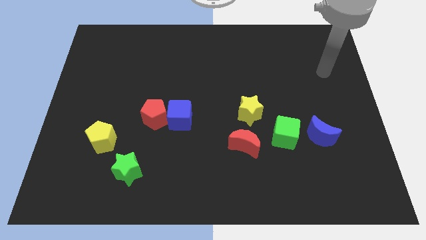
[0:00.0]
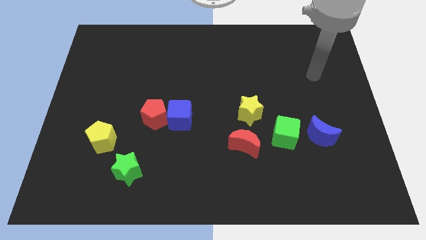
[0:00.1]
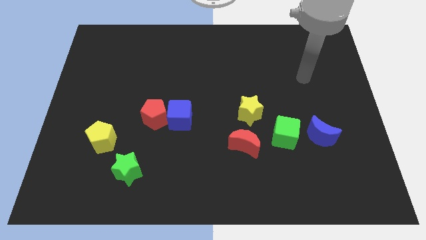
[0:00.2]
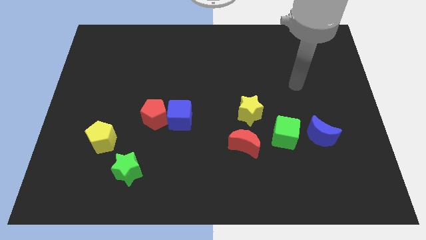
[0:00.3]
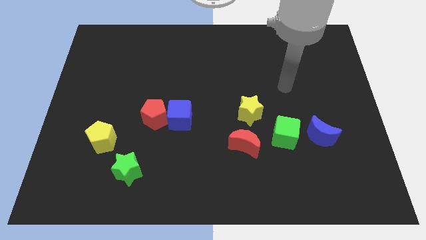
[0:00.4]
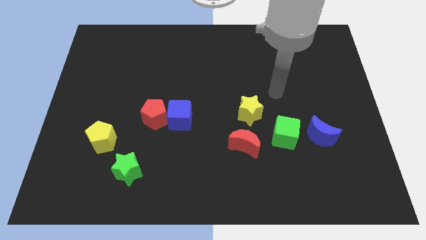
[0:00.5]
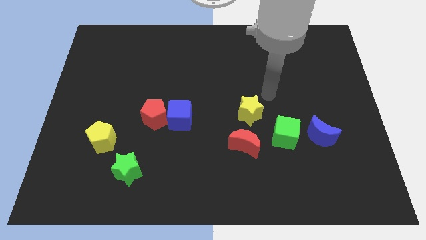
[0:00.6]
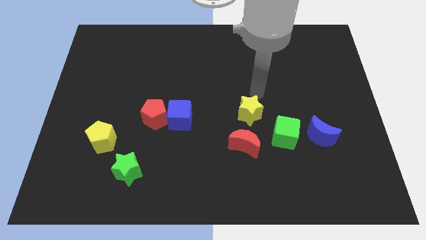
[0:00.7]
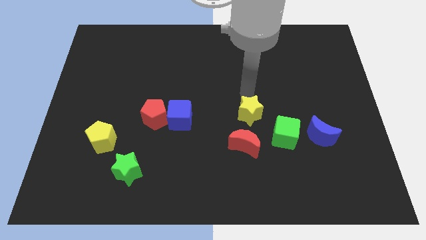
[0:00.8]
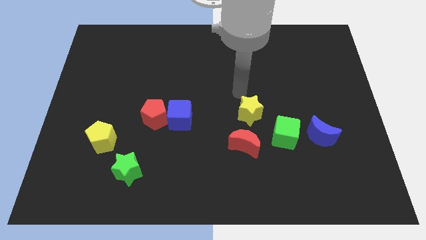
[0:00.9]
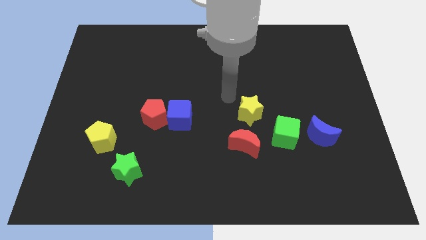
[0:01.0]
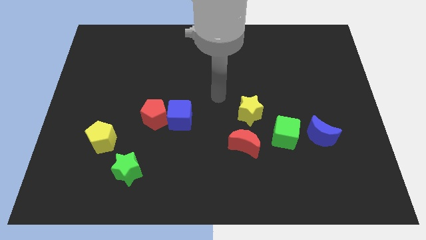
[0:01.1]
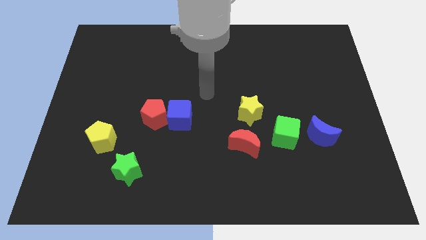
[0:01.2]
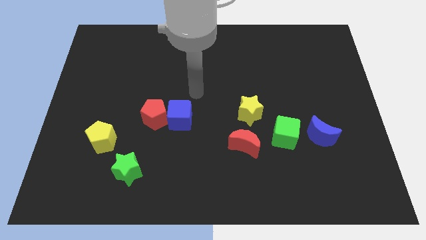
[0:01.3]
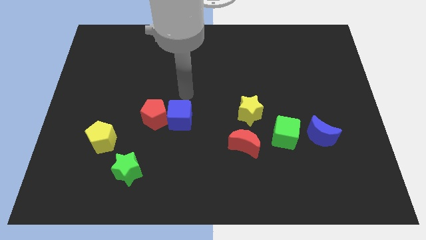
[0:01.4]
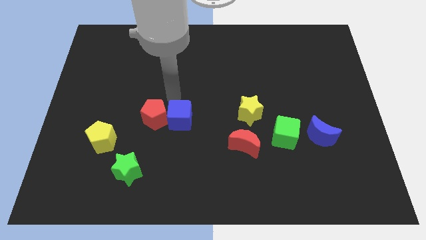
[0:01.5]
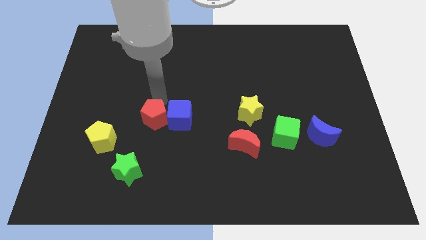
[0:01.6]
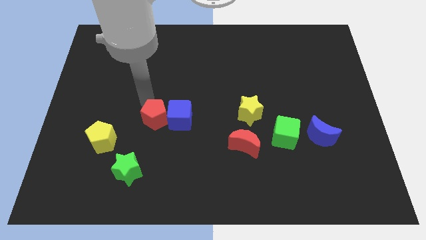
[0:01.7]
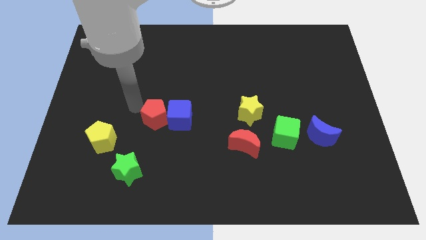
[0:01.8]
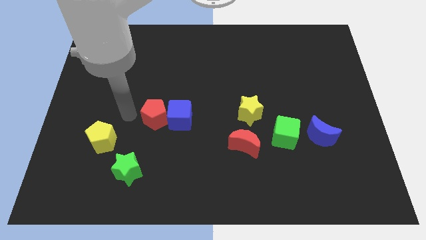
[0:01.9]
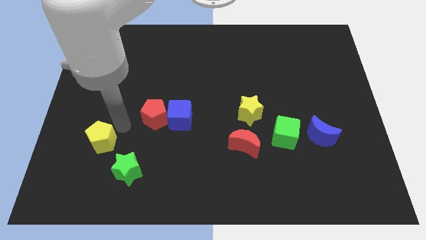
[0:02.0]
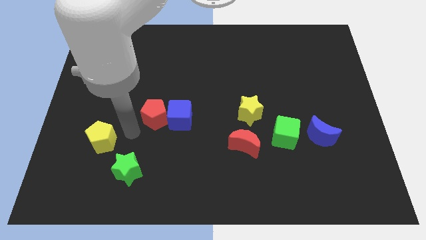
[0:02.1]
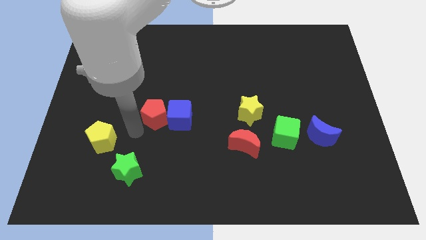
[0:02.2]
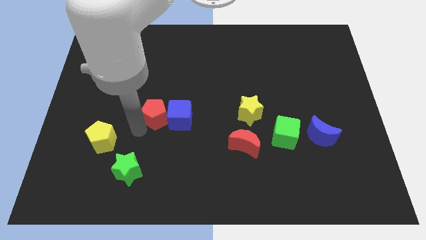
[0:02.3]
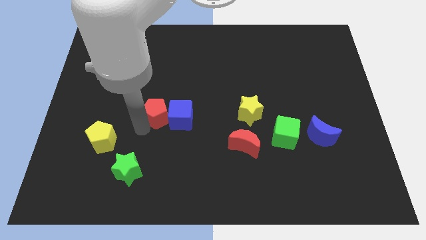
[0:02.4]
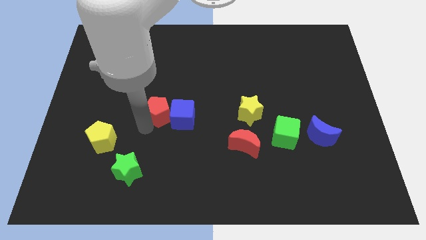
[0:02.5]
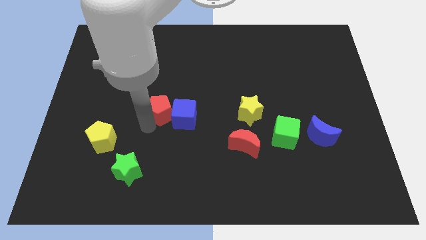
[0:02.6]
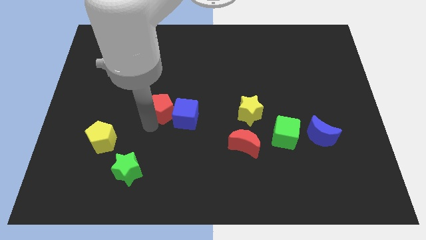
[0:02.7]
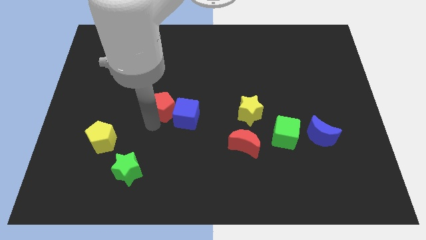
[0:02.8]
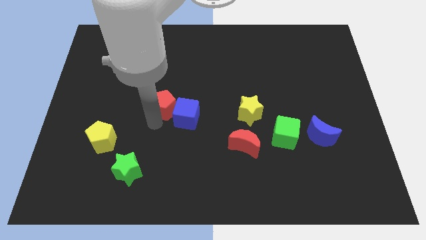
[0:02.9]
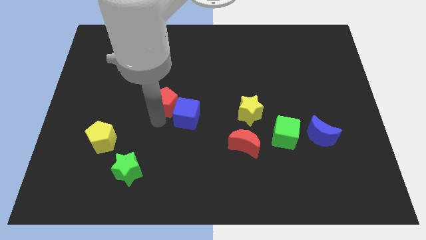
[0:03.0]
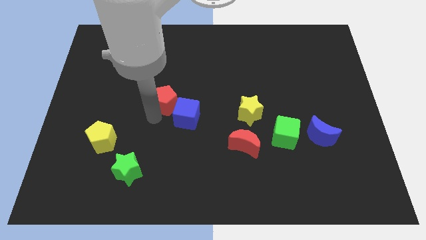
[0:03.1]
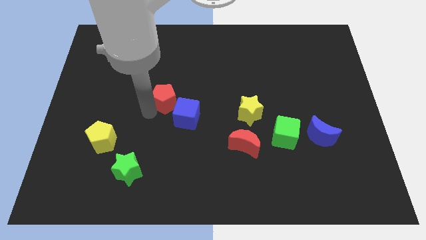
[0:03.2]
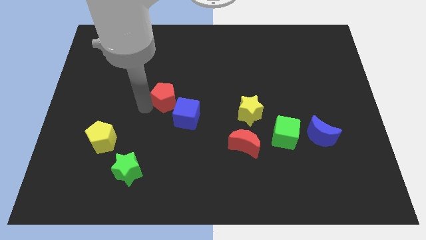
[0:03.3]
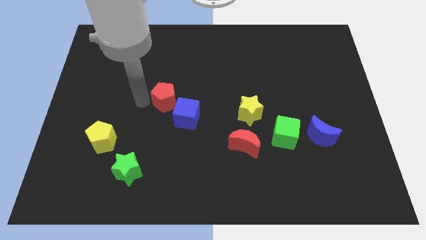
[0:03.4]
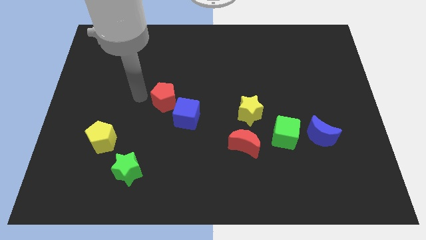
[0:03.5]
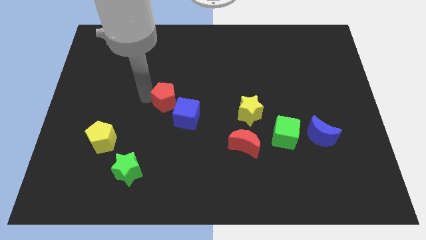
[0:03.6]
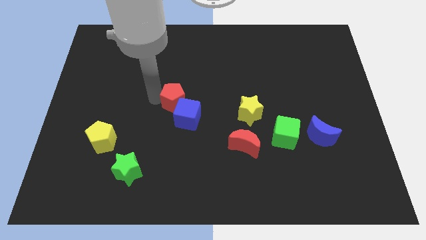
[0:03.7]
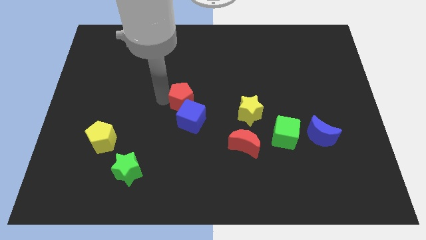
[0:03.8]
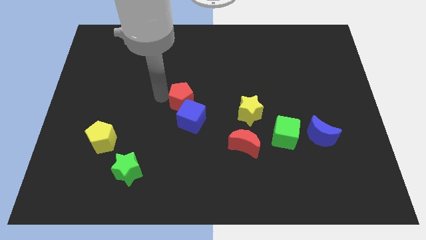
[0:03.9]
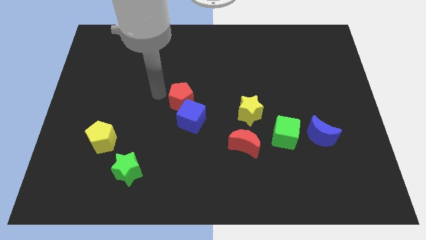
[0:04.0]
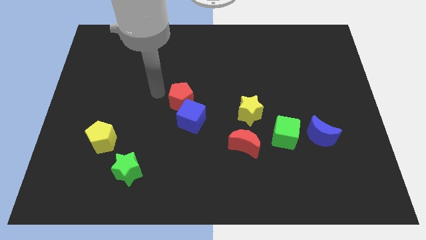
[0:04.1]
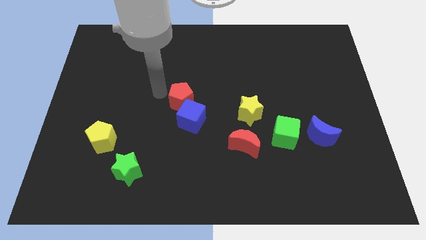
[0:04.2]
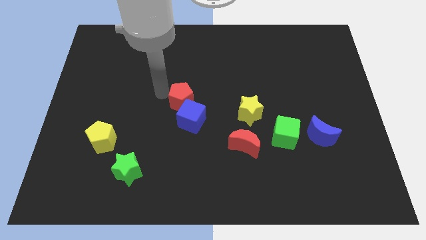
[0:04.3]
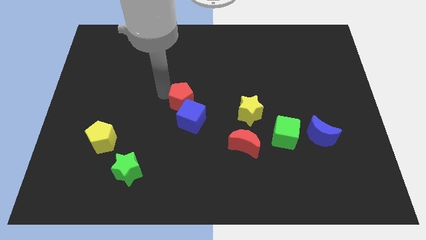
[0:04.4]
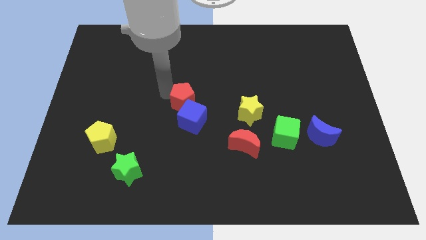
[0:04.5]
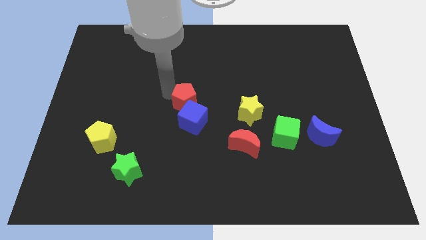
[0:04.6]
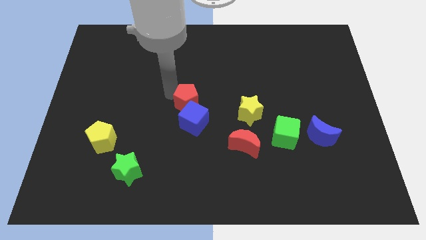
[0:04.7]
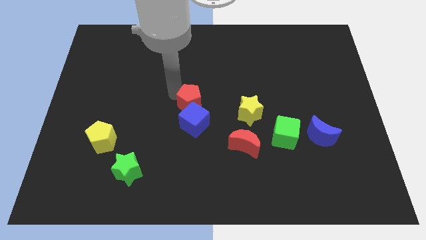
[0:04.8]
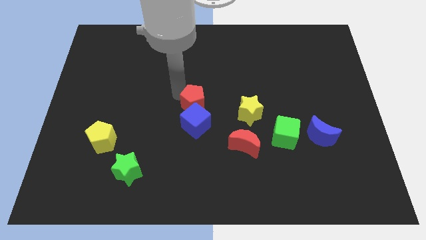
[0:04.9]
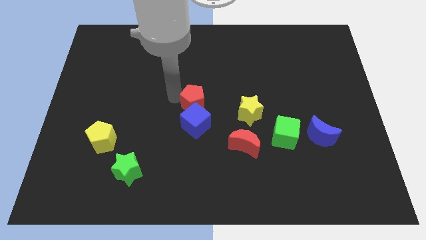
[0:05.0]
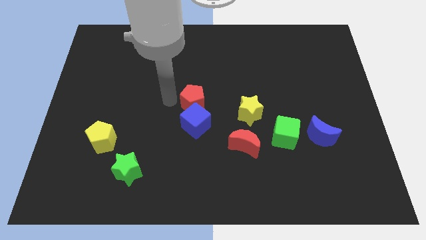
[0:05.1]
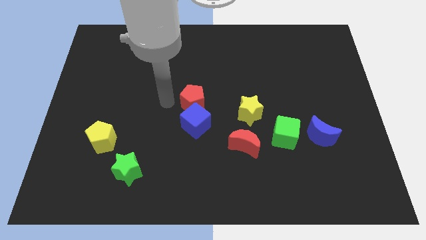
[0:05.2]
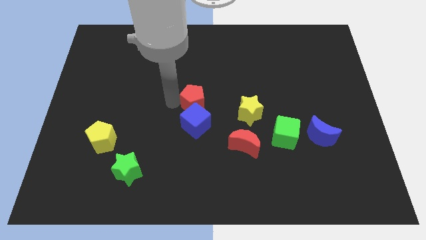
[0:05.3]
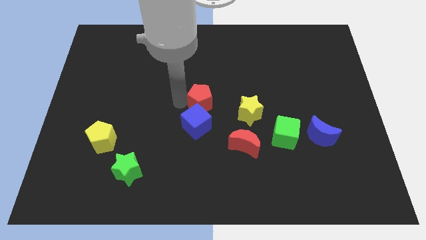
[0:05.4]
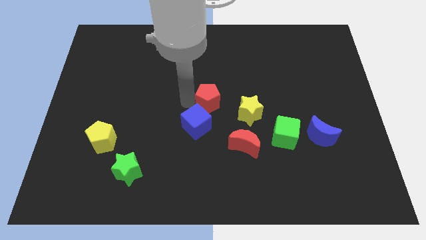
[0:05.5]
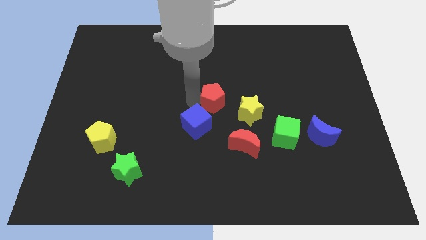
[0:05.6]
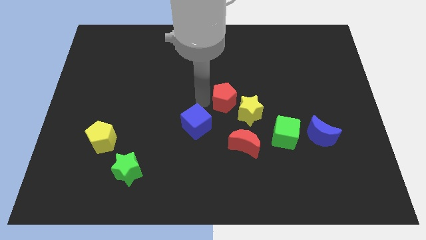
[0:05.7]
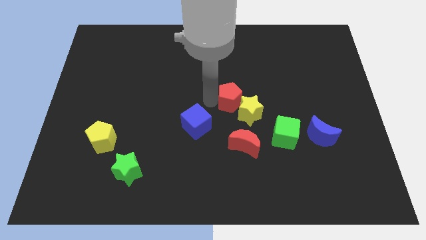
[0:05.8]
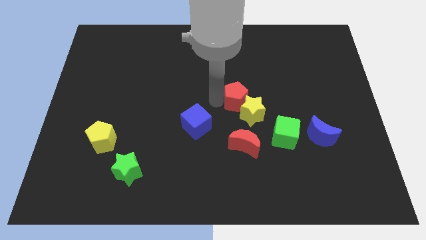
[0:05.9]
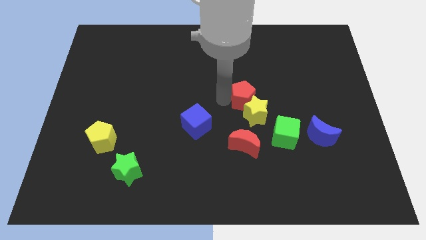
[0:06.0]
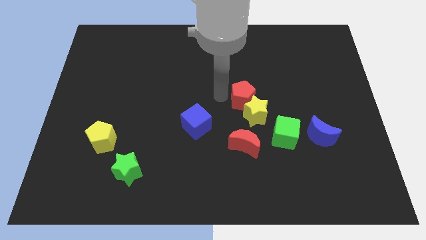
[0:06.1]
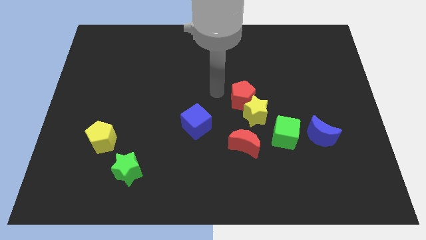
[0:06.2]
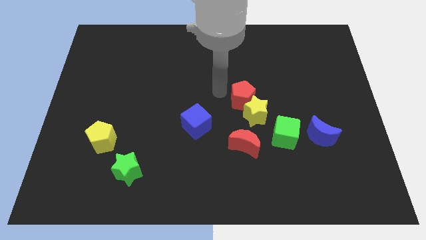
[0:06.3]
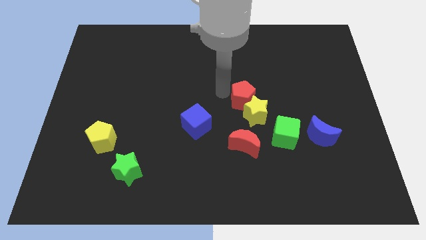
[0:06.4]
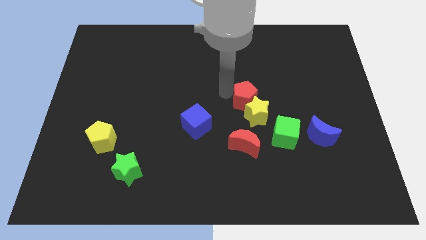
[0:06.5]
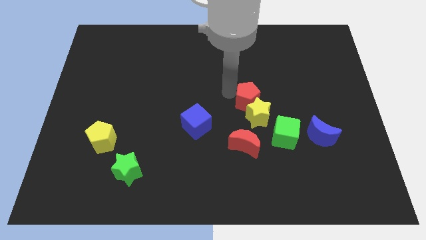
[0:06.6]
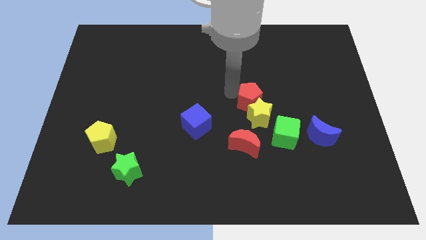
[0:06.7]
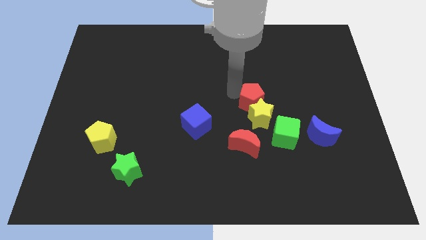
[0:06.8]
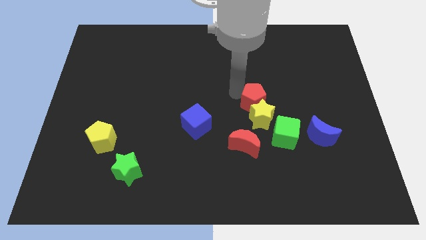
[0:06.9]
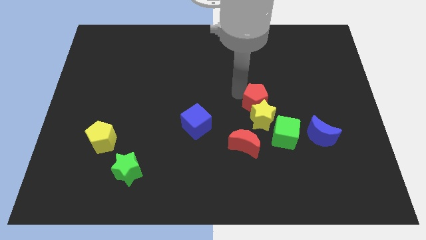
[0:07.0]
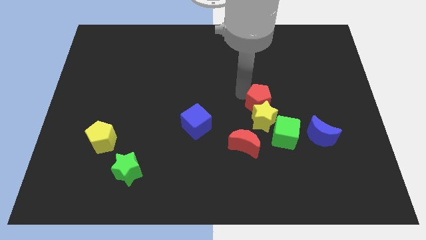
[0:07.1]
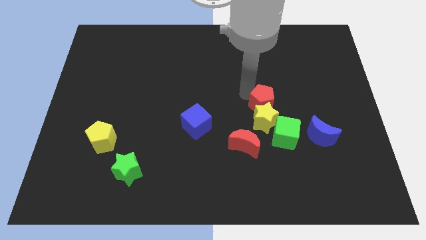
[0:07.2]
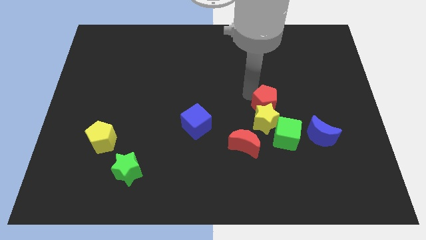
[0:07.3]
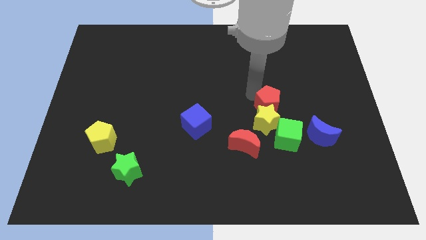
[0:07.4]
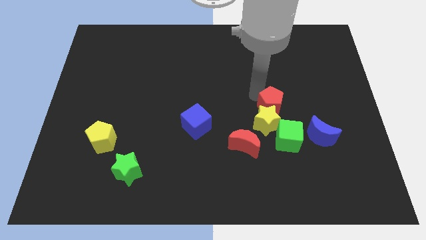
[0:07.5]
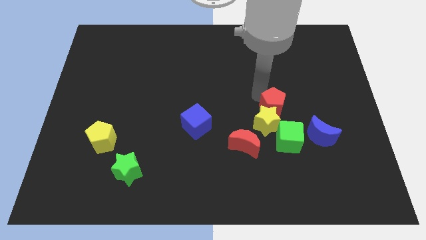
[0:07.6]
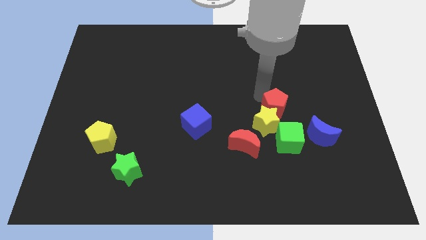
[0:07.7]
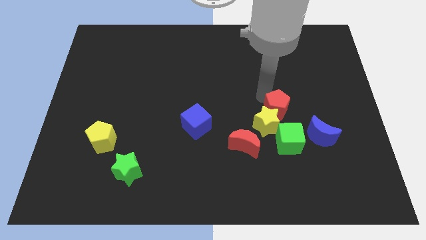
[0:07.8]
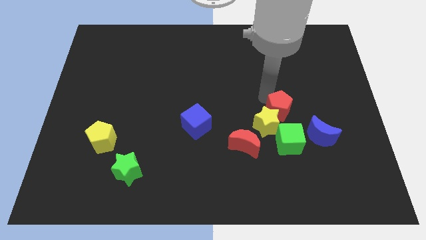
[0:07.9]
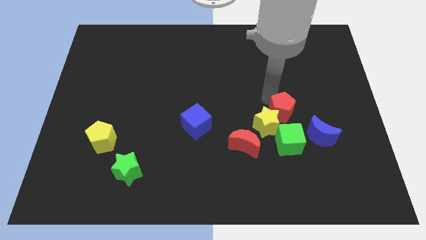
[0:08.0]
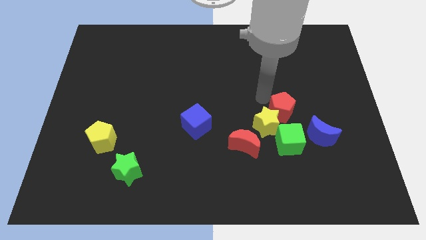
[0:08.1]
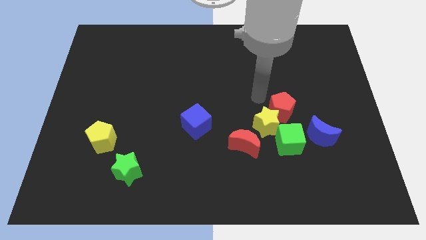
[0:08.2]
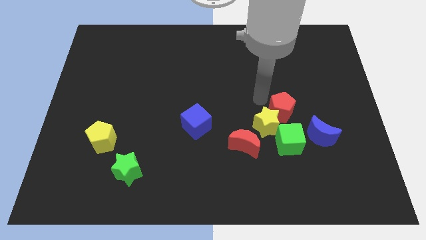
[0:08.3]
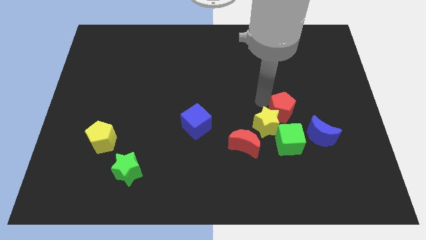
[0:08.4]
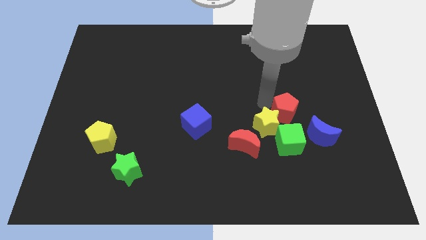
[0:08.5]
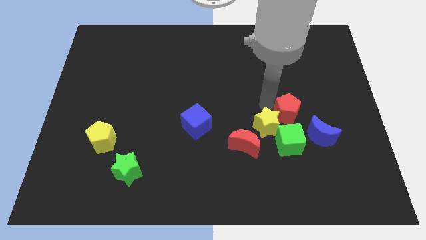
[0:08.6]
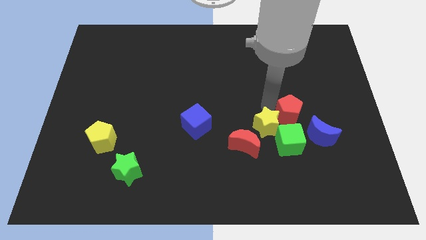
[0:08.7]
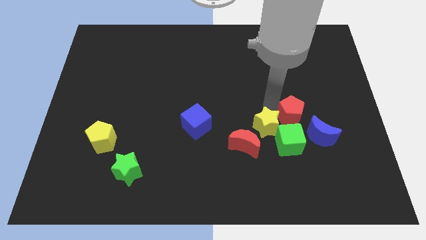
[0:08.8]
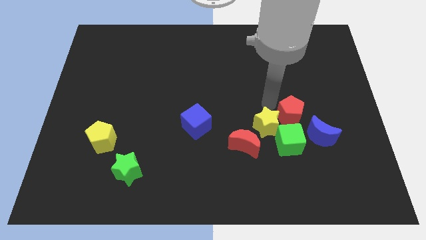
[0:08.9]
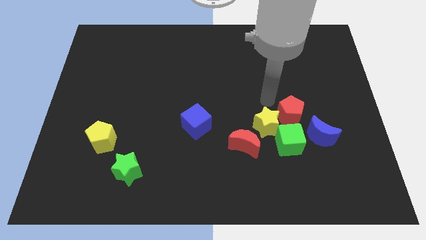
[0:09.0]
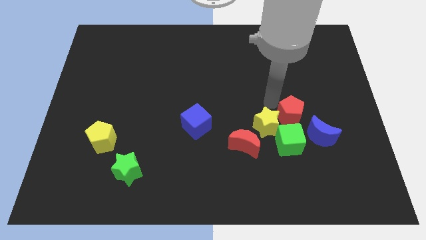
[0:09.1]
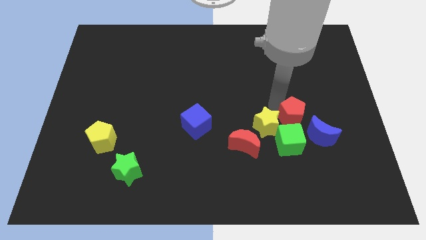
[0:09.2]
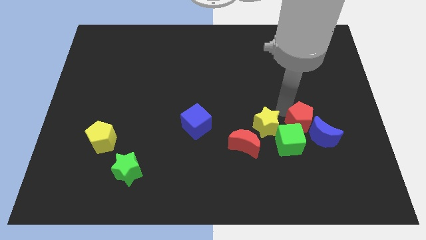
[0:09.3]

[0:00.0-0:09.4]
push the red pentagon to the blue moon
